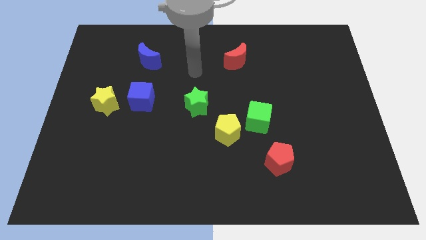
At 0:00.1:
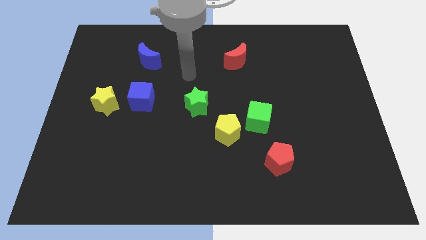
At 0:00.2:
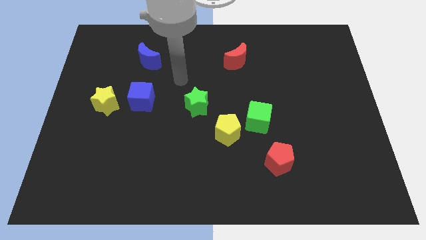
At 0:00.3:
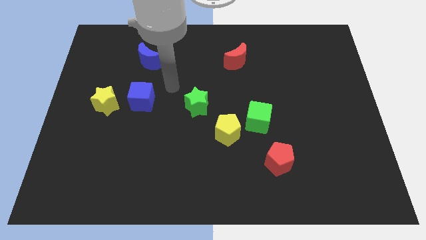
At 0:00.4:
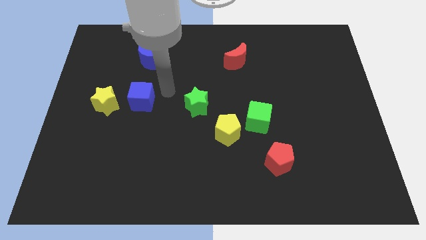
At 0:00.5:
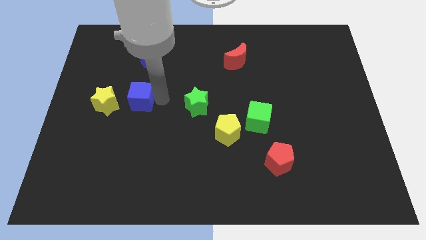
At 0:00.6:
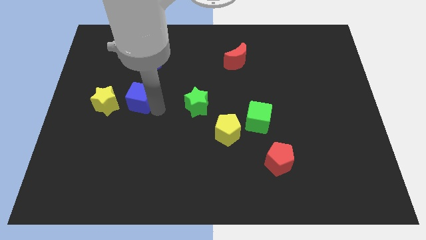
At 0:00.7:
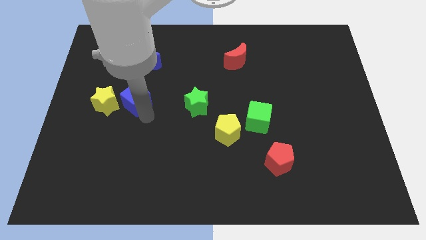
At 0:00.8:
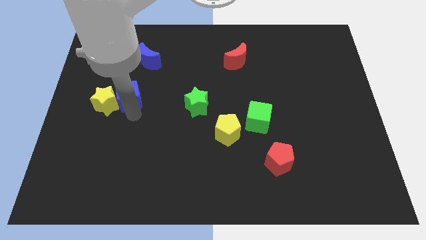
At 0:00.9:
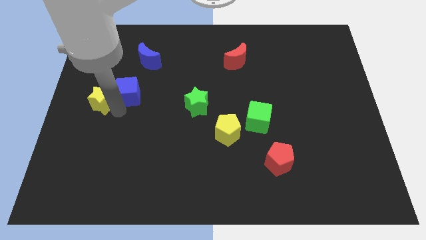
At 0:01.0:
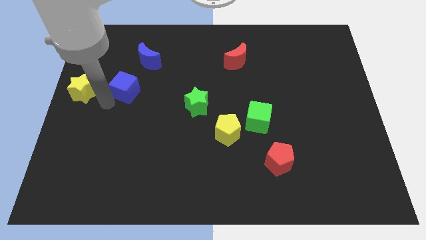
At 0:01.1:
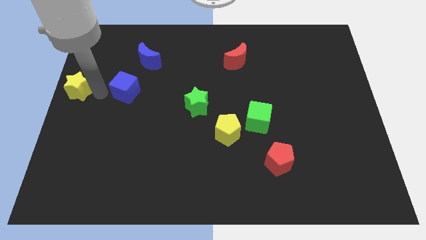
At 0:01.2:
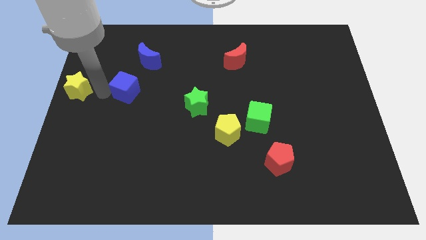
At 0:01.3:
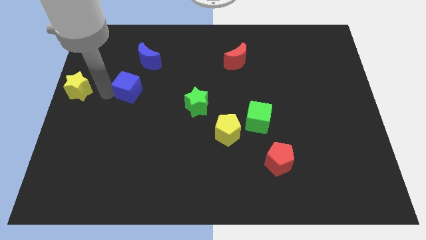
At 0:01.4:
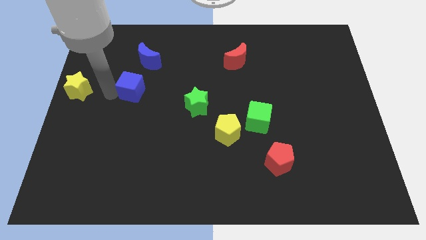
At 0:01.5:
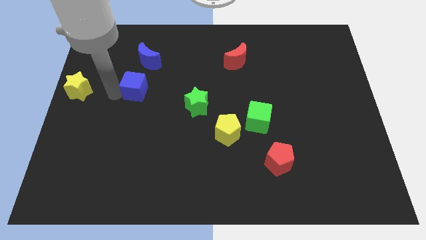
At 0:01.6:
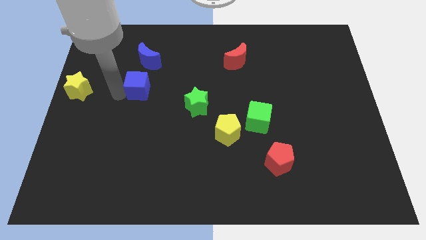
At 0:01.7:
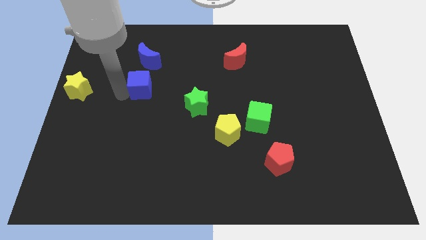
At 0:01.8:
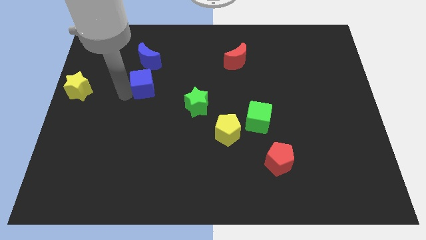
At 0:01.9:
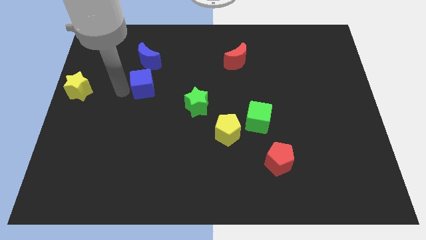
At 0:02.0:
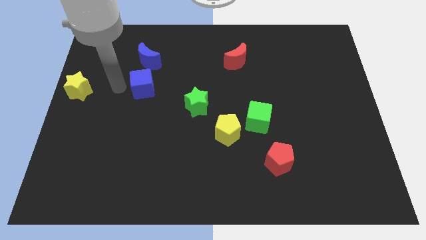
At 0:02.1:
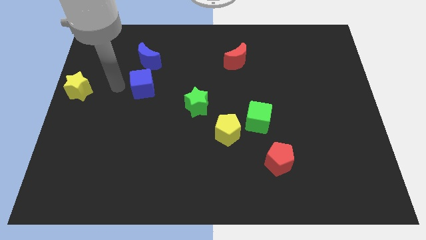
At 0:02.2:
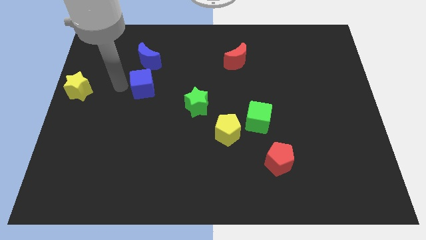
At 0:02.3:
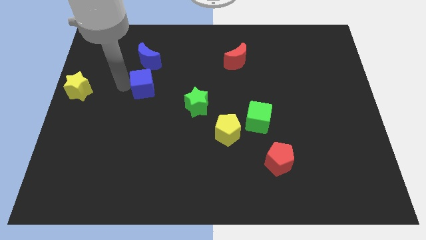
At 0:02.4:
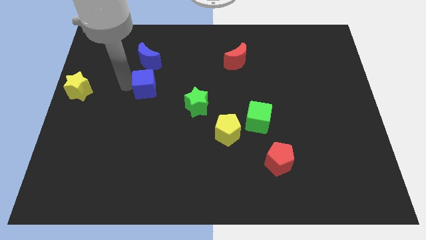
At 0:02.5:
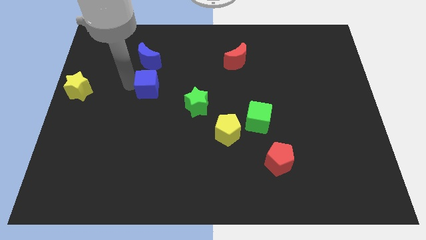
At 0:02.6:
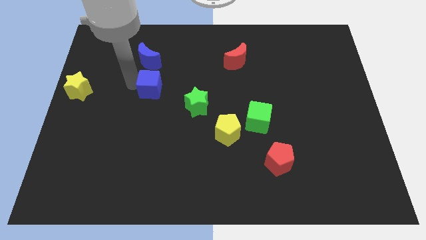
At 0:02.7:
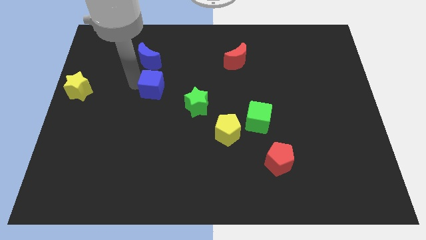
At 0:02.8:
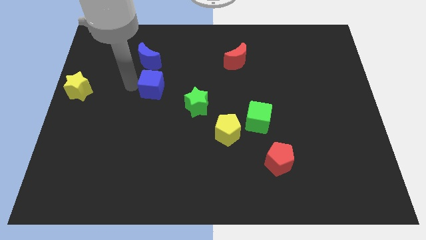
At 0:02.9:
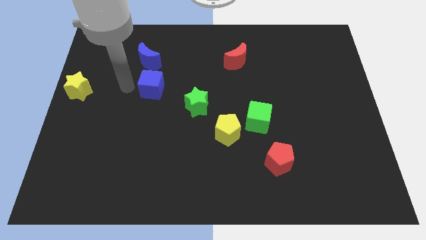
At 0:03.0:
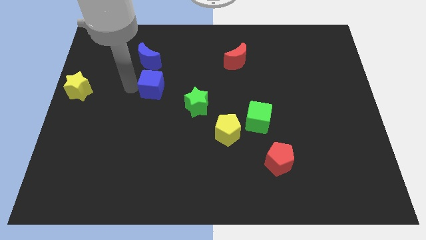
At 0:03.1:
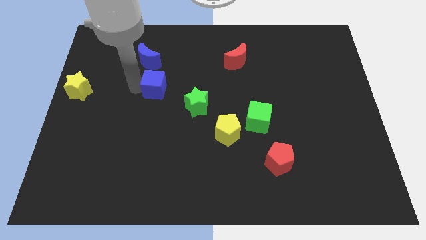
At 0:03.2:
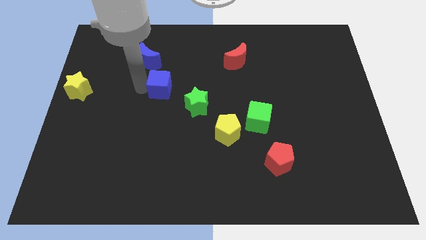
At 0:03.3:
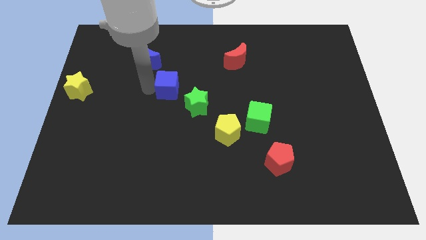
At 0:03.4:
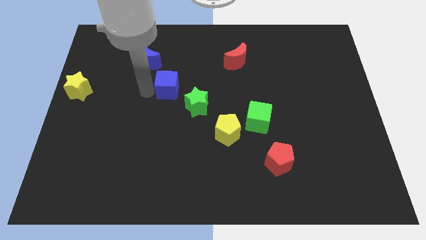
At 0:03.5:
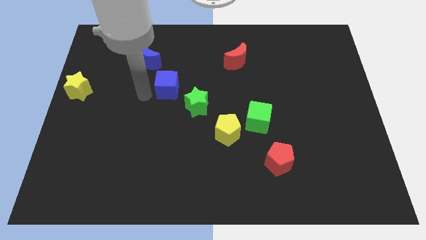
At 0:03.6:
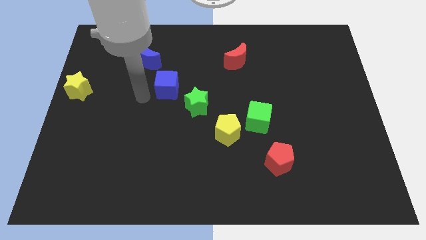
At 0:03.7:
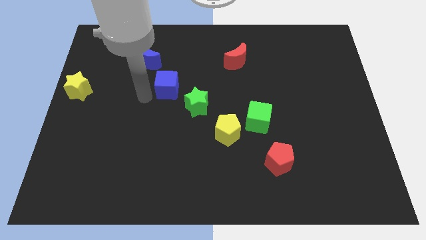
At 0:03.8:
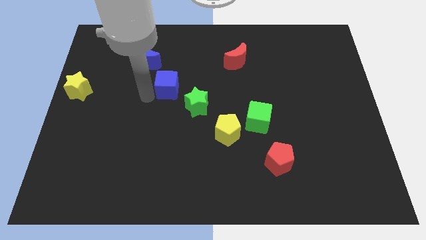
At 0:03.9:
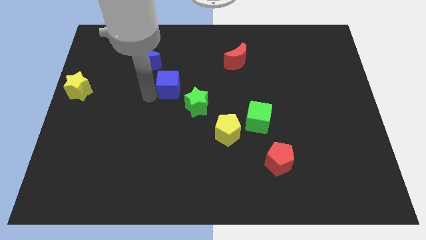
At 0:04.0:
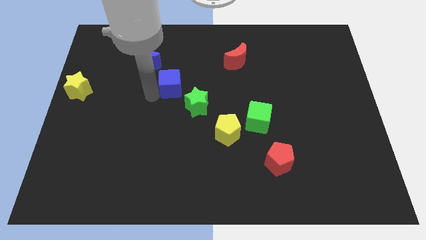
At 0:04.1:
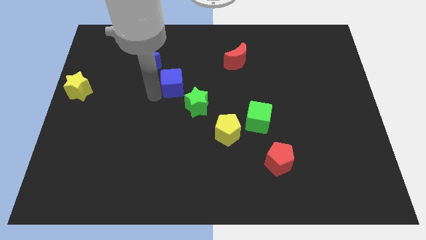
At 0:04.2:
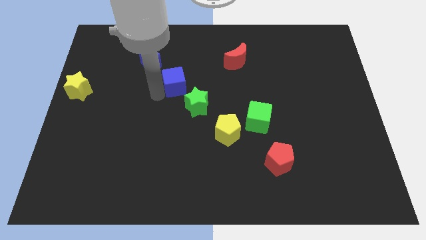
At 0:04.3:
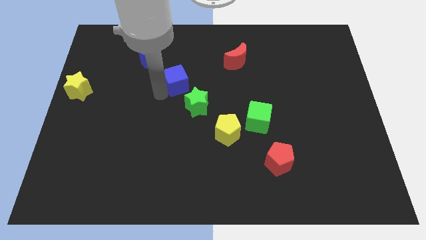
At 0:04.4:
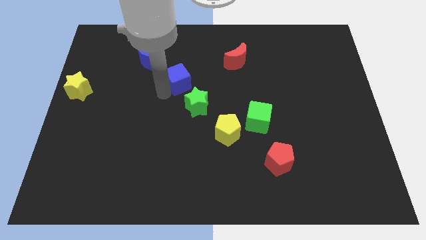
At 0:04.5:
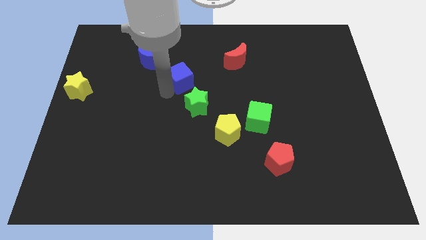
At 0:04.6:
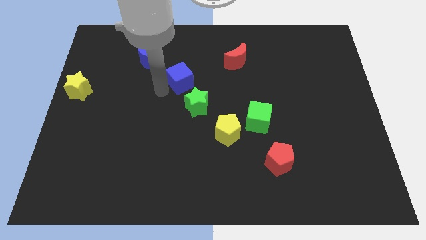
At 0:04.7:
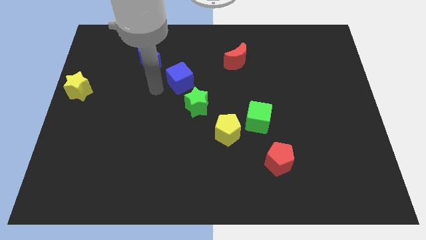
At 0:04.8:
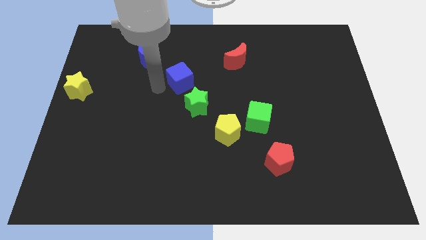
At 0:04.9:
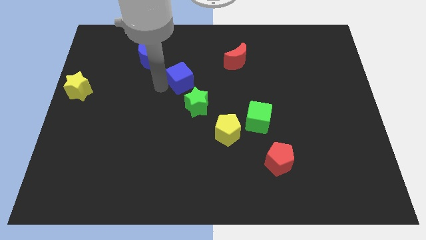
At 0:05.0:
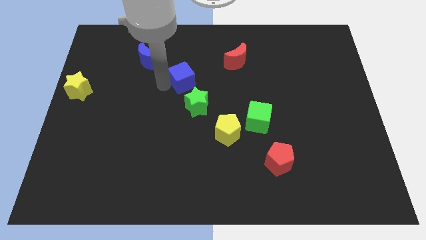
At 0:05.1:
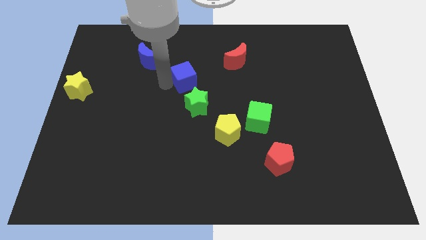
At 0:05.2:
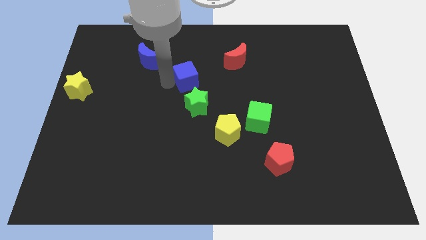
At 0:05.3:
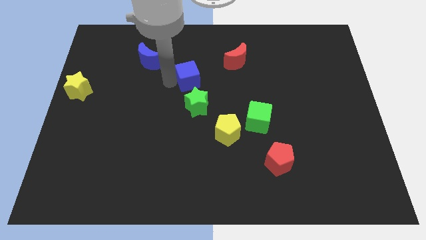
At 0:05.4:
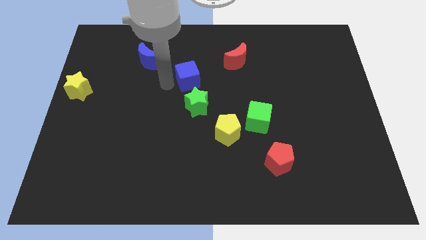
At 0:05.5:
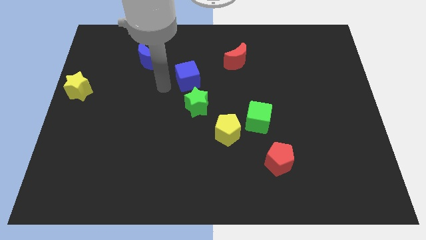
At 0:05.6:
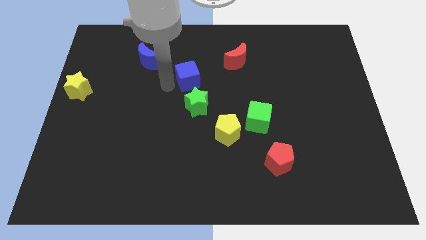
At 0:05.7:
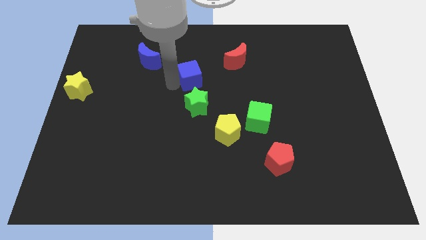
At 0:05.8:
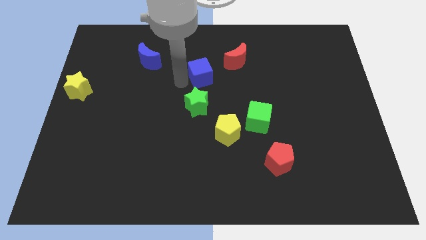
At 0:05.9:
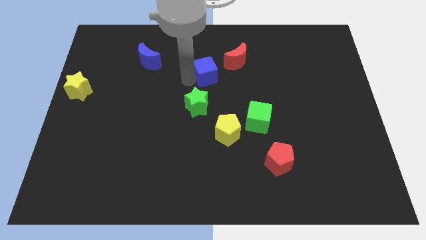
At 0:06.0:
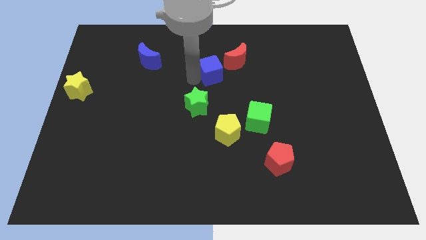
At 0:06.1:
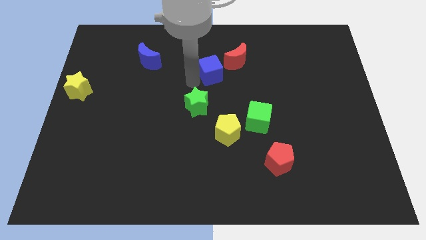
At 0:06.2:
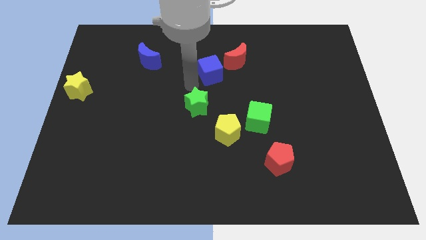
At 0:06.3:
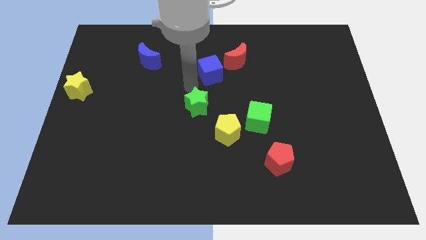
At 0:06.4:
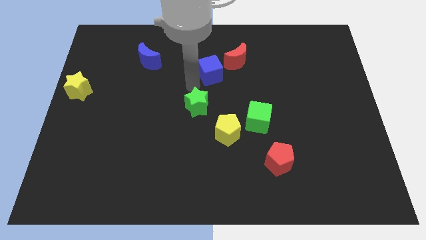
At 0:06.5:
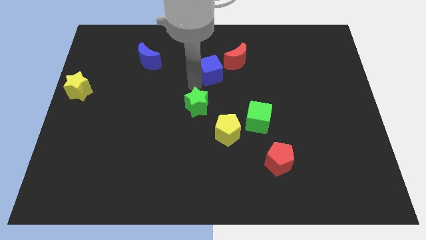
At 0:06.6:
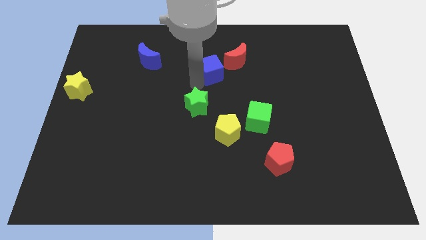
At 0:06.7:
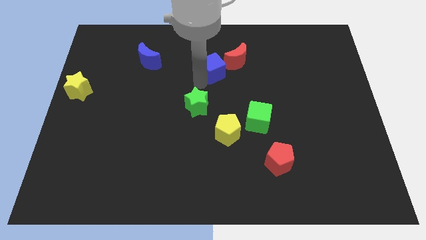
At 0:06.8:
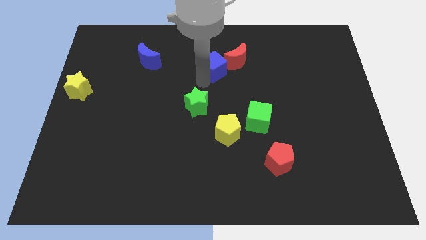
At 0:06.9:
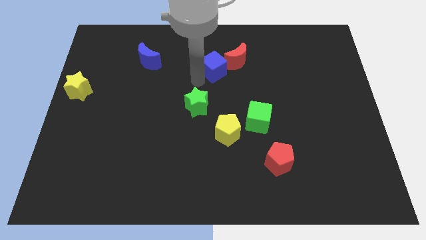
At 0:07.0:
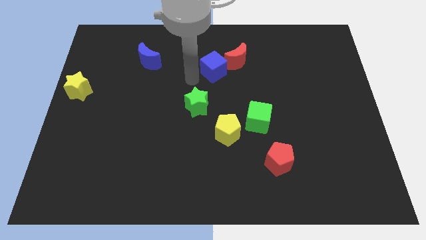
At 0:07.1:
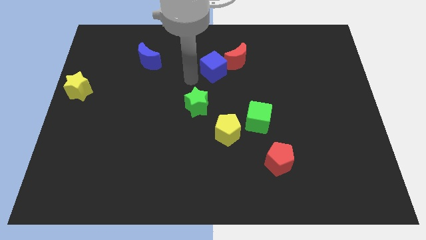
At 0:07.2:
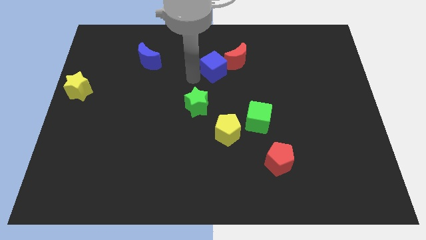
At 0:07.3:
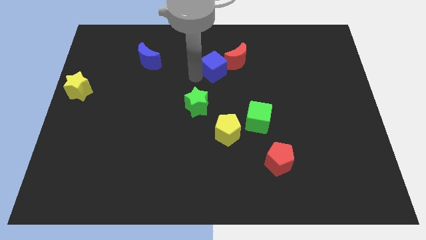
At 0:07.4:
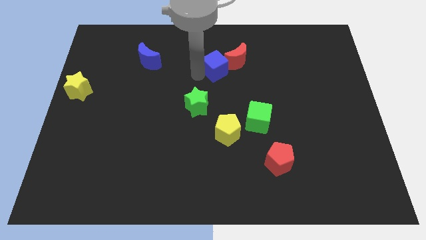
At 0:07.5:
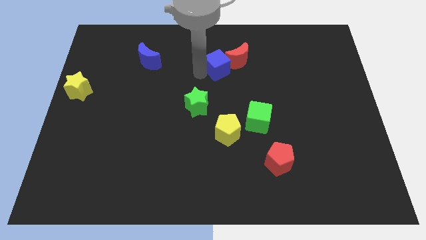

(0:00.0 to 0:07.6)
move the blue cube next to the red moon
